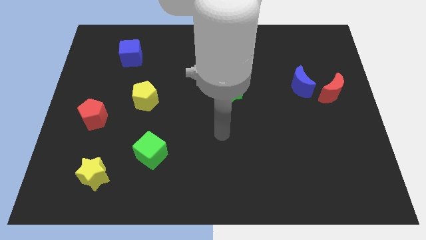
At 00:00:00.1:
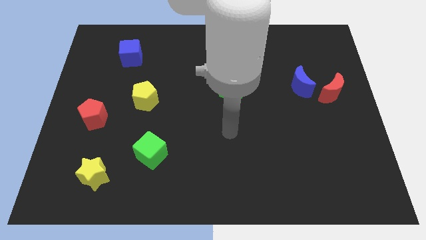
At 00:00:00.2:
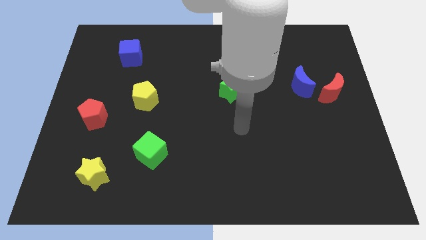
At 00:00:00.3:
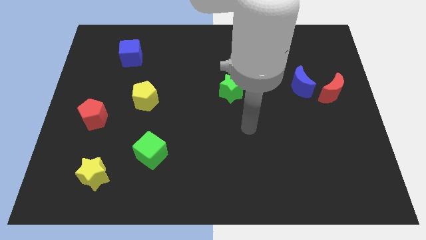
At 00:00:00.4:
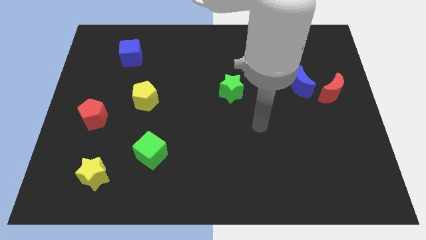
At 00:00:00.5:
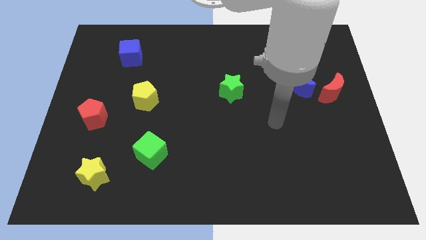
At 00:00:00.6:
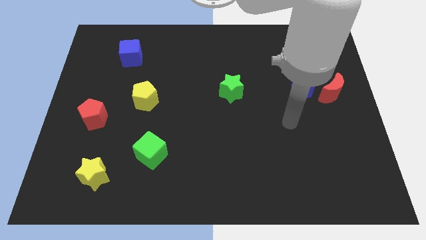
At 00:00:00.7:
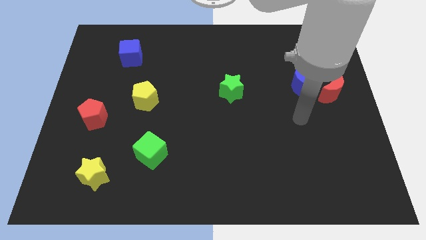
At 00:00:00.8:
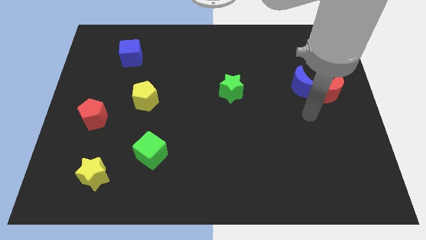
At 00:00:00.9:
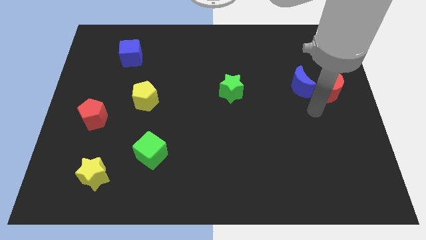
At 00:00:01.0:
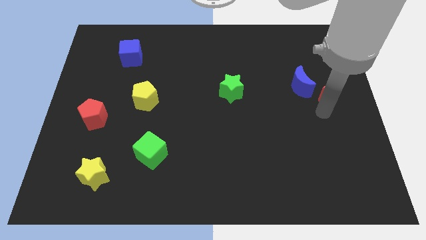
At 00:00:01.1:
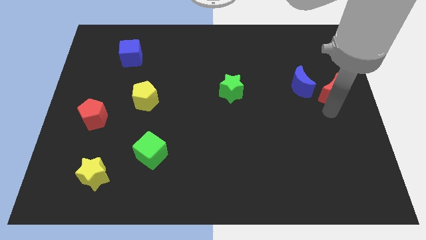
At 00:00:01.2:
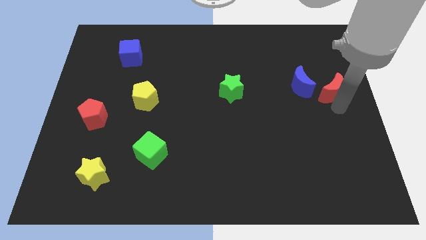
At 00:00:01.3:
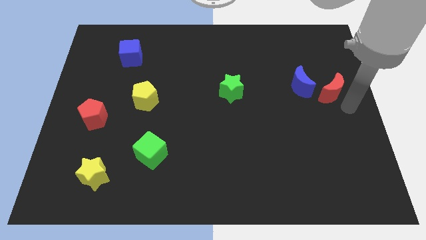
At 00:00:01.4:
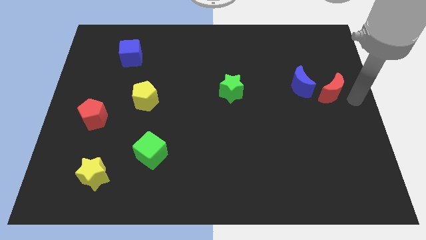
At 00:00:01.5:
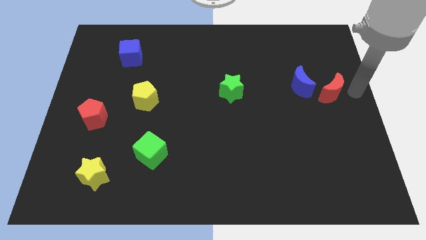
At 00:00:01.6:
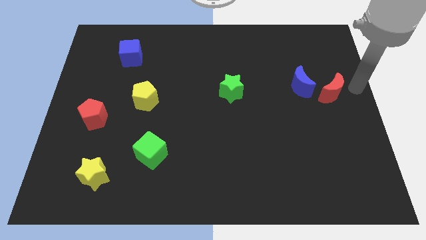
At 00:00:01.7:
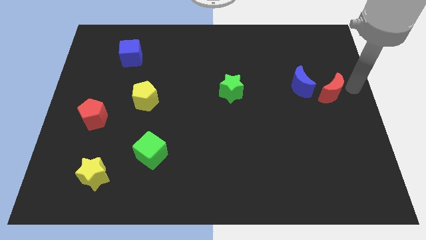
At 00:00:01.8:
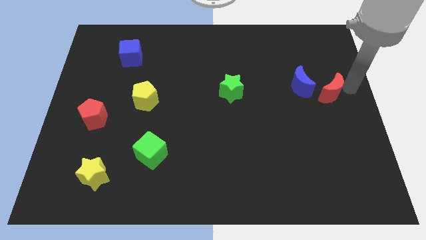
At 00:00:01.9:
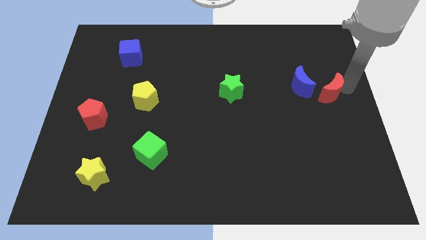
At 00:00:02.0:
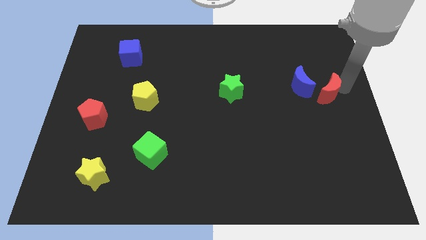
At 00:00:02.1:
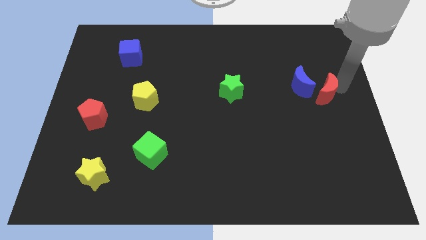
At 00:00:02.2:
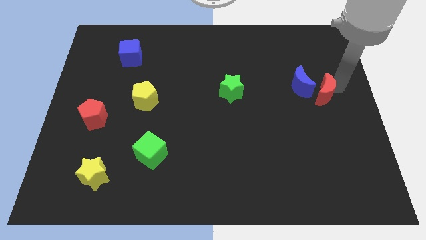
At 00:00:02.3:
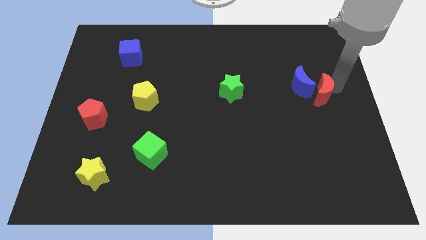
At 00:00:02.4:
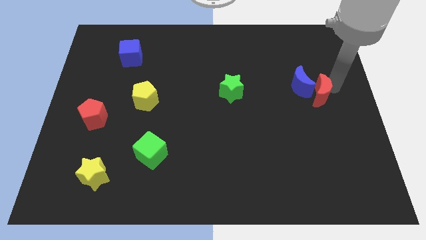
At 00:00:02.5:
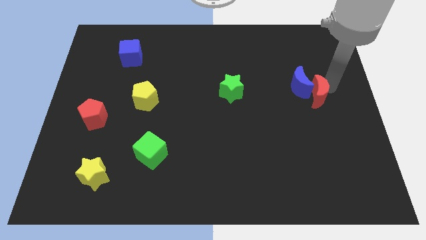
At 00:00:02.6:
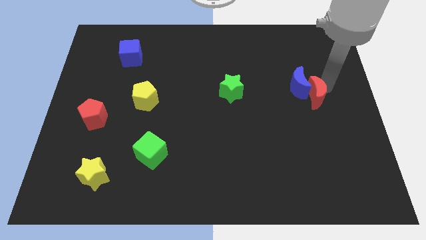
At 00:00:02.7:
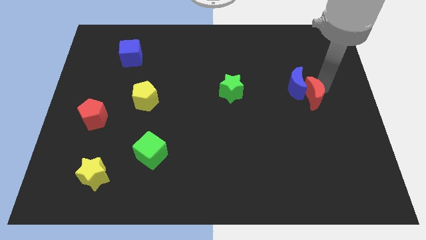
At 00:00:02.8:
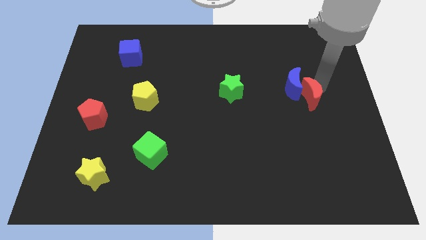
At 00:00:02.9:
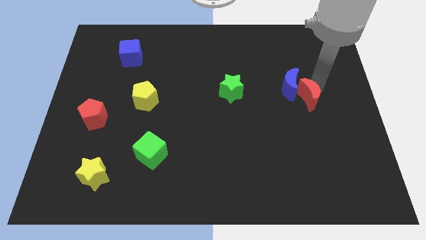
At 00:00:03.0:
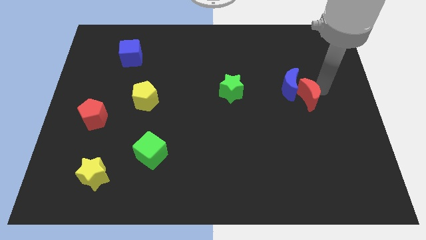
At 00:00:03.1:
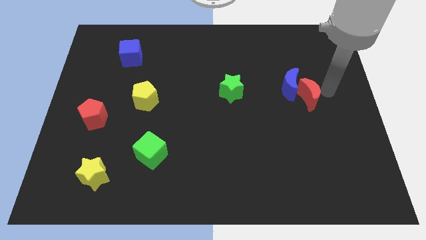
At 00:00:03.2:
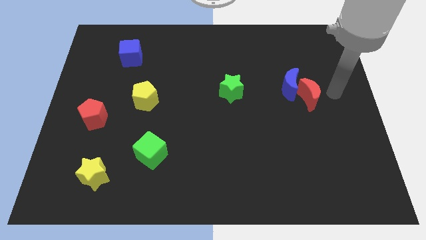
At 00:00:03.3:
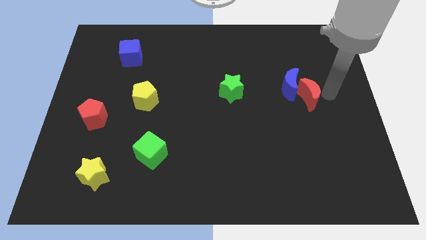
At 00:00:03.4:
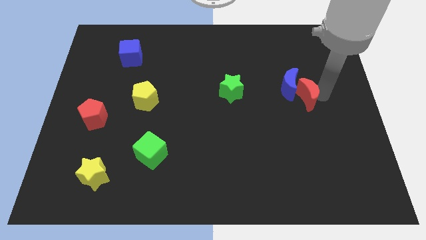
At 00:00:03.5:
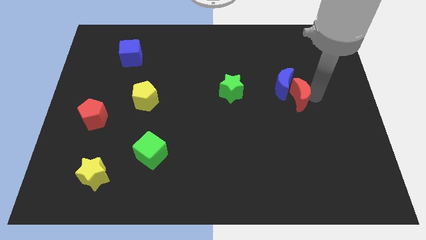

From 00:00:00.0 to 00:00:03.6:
slightly push the red moon to the left

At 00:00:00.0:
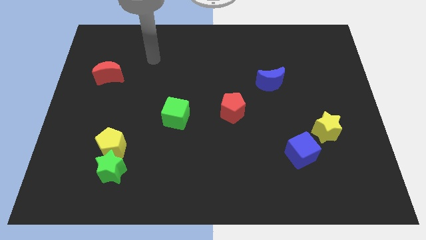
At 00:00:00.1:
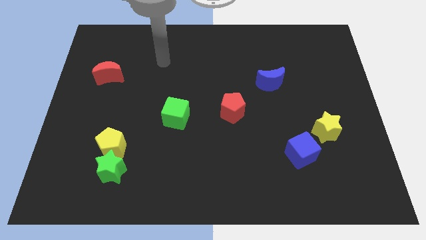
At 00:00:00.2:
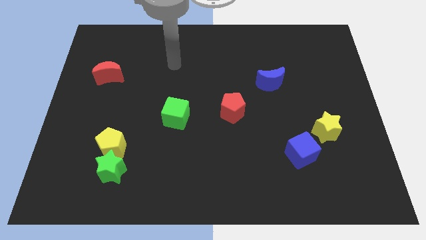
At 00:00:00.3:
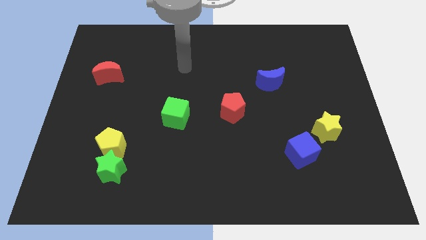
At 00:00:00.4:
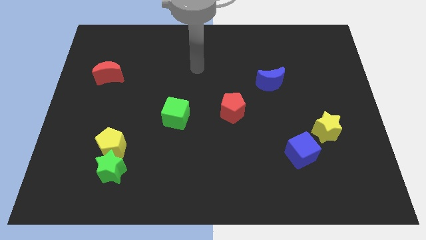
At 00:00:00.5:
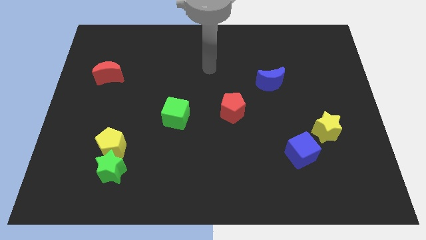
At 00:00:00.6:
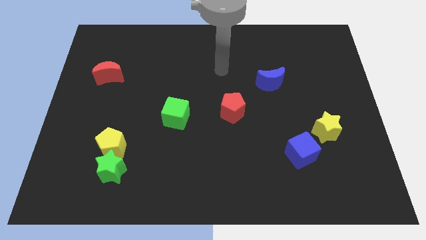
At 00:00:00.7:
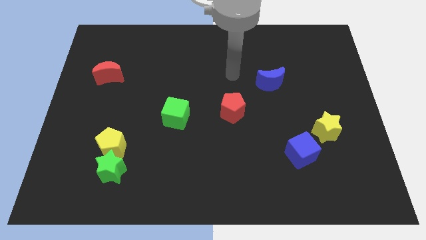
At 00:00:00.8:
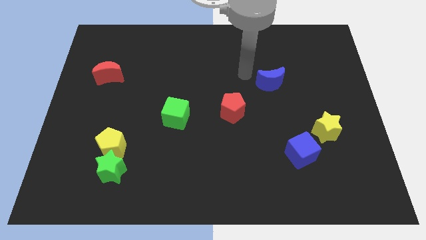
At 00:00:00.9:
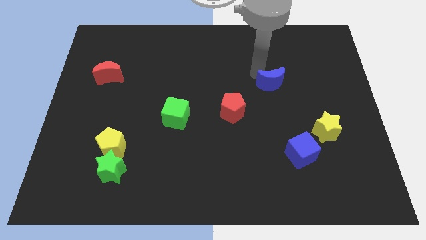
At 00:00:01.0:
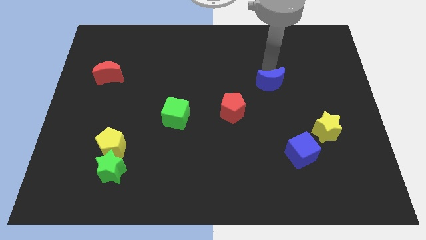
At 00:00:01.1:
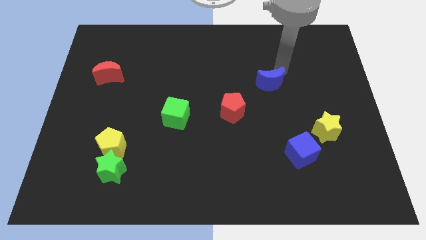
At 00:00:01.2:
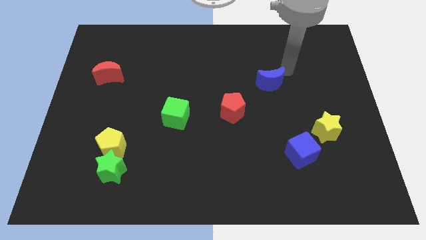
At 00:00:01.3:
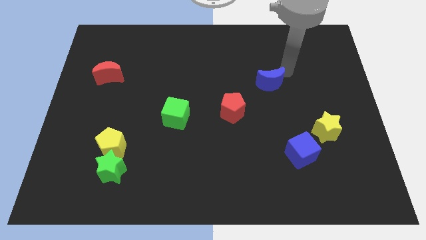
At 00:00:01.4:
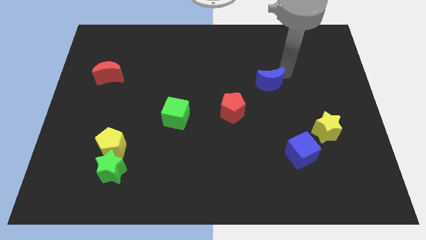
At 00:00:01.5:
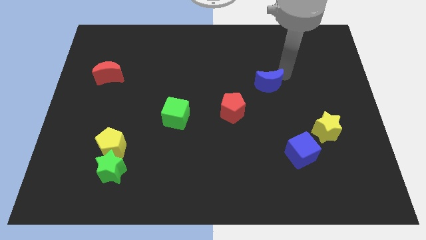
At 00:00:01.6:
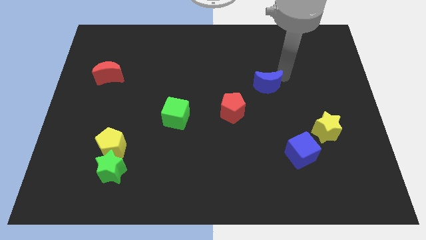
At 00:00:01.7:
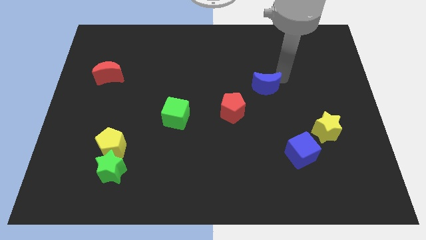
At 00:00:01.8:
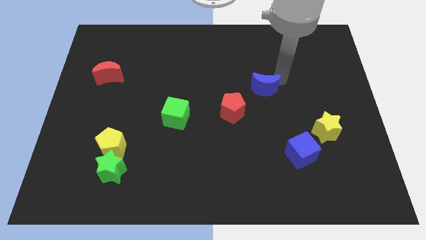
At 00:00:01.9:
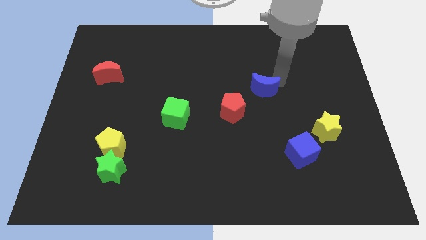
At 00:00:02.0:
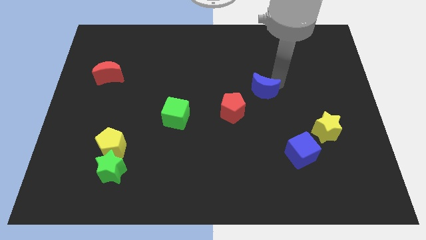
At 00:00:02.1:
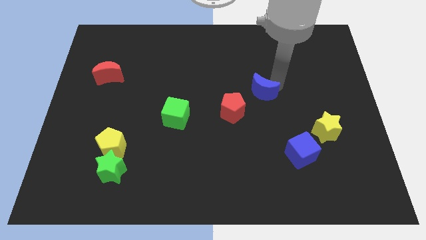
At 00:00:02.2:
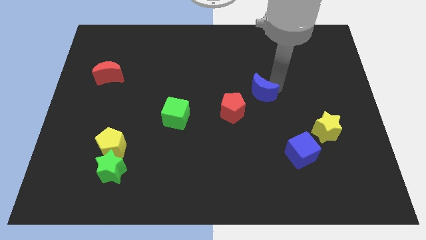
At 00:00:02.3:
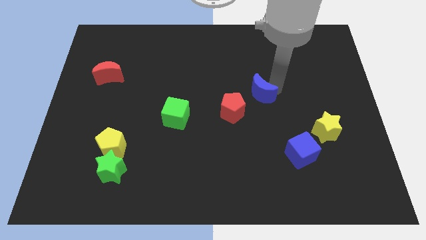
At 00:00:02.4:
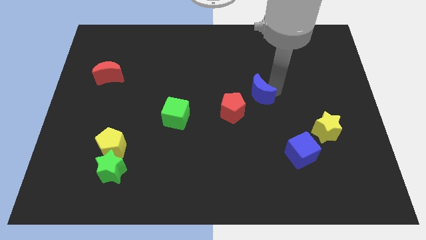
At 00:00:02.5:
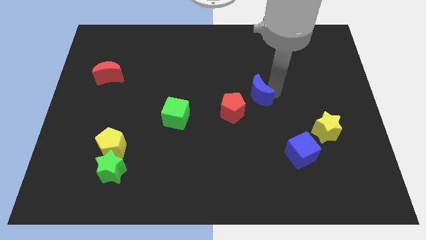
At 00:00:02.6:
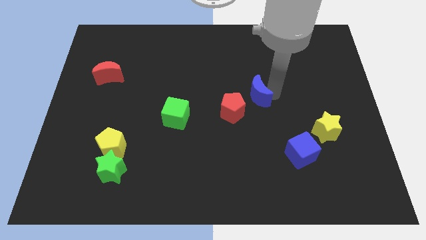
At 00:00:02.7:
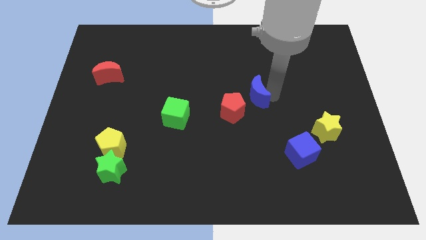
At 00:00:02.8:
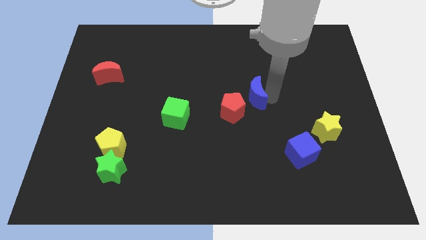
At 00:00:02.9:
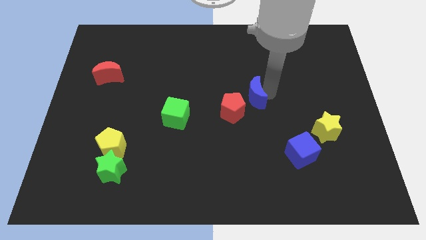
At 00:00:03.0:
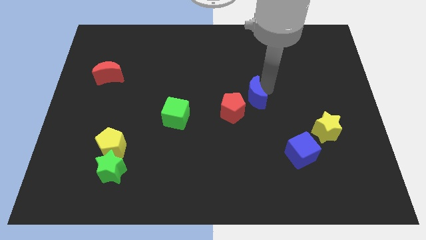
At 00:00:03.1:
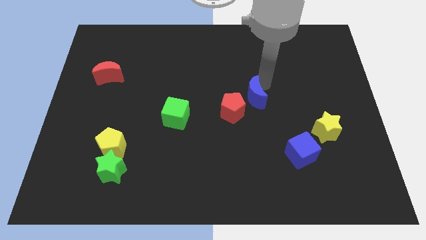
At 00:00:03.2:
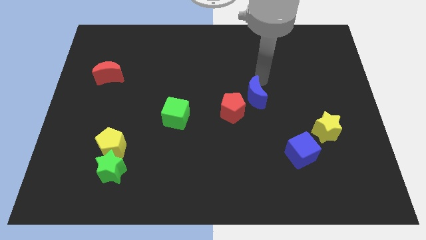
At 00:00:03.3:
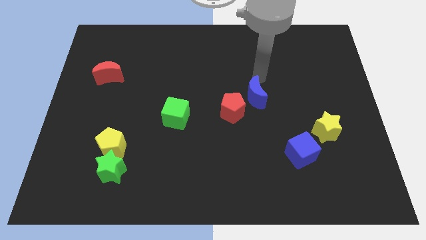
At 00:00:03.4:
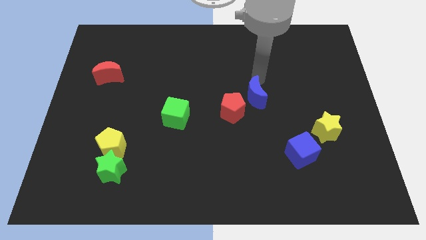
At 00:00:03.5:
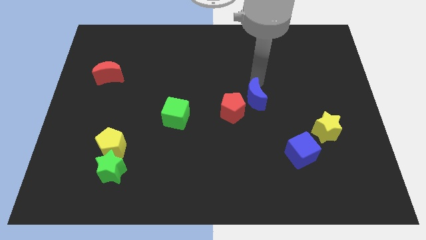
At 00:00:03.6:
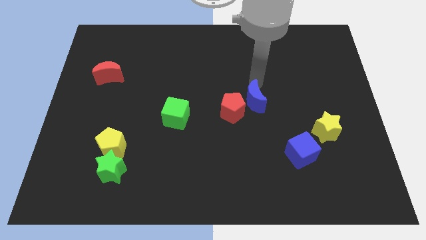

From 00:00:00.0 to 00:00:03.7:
move the blue moon a little bit diagonally downwards and to the left

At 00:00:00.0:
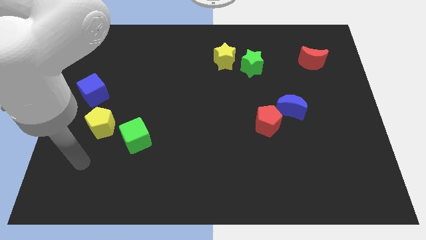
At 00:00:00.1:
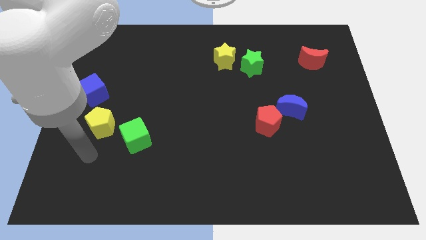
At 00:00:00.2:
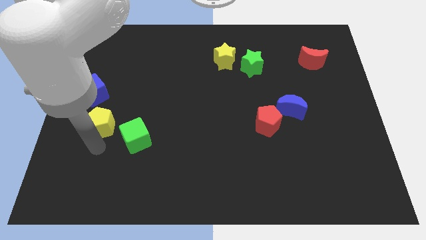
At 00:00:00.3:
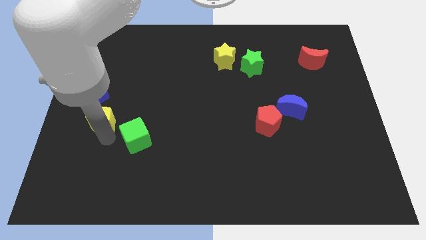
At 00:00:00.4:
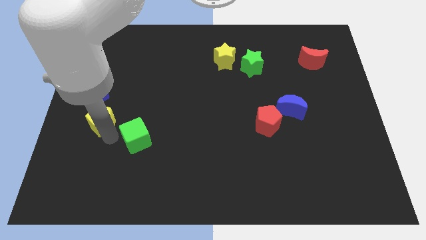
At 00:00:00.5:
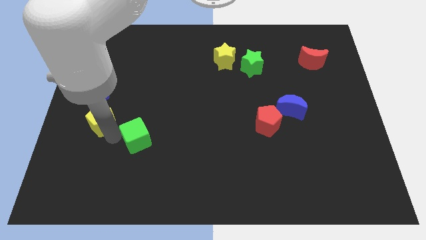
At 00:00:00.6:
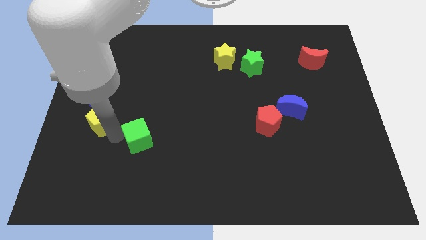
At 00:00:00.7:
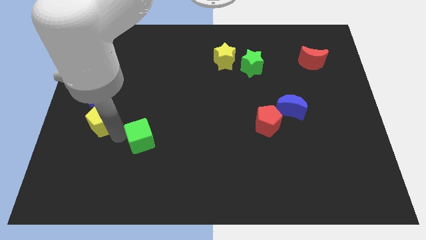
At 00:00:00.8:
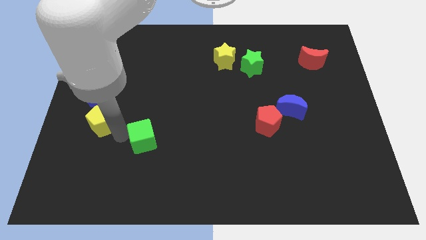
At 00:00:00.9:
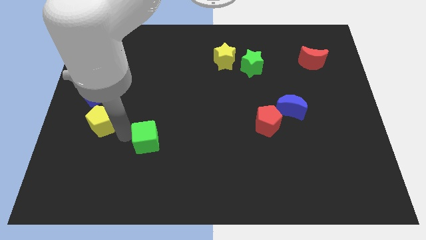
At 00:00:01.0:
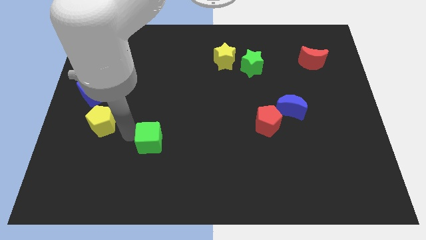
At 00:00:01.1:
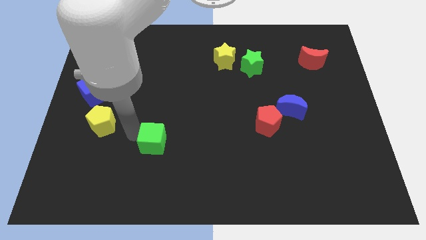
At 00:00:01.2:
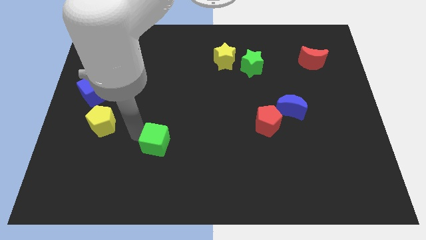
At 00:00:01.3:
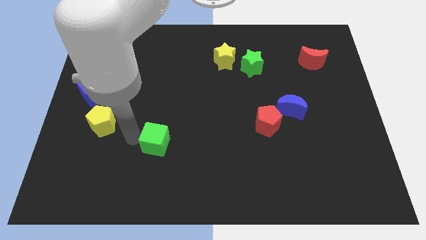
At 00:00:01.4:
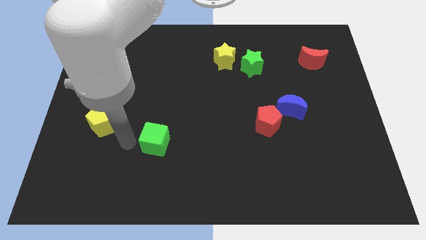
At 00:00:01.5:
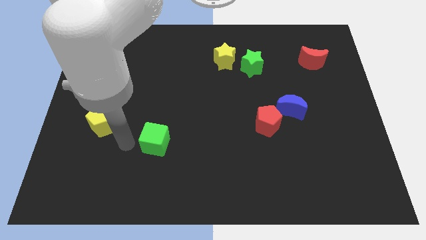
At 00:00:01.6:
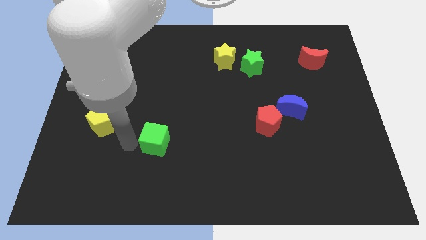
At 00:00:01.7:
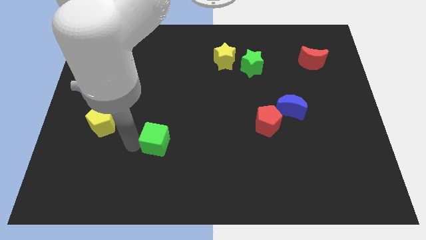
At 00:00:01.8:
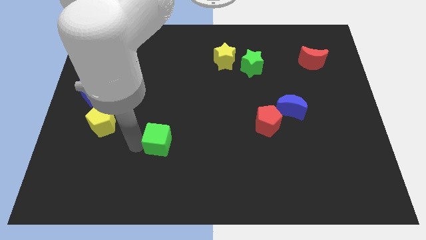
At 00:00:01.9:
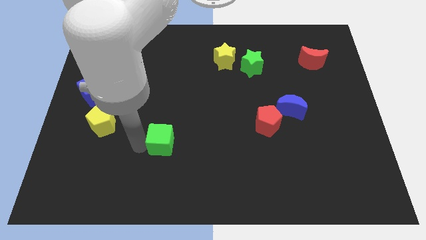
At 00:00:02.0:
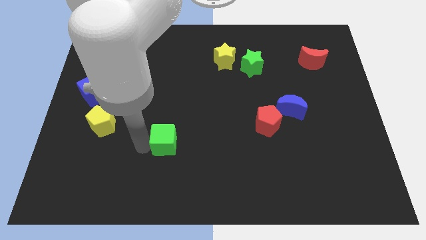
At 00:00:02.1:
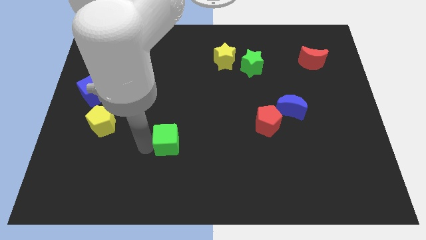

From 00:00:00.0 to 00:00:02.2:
slightly slide the green cube right
